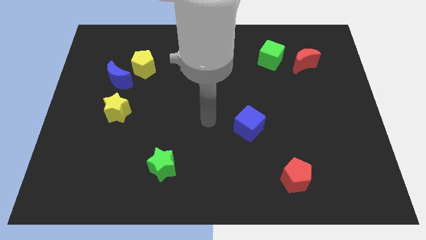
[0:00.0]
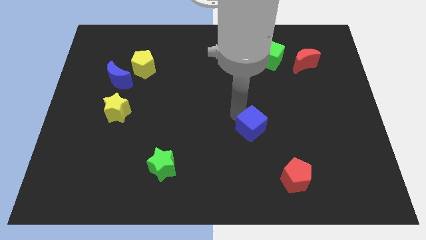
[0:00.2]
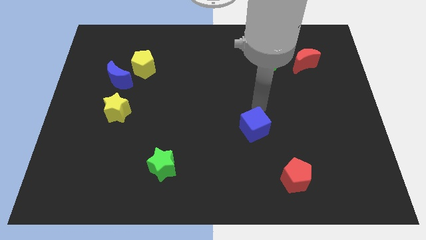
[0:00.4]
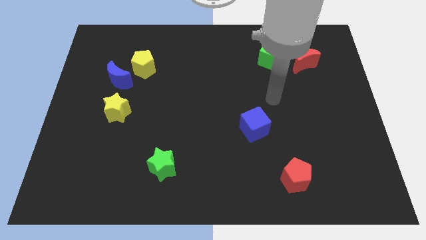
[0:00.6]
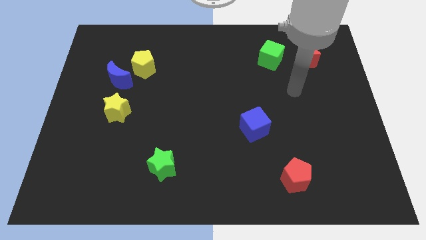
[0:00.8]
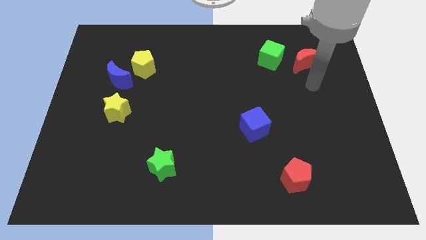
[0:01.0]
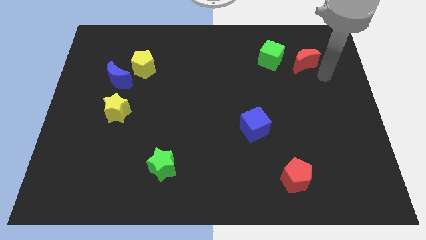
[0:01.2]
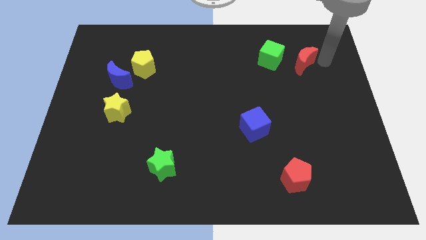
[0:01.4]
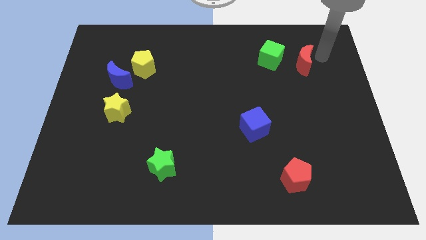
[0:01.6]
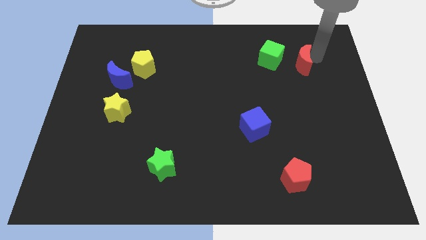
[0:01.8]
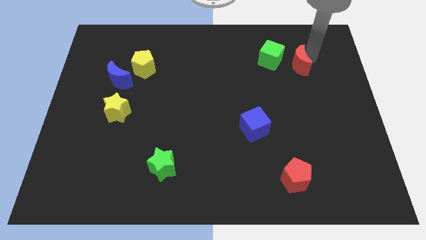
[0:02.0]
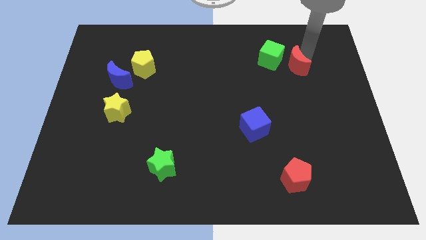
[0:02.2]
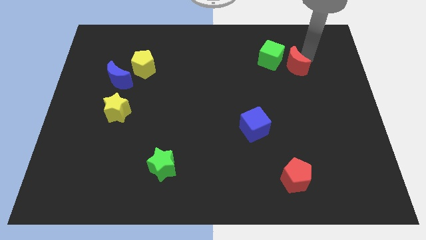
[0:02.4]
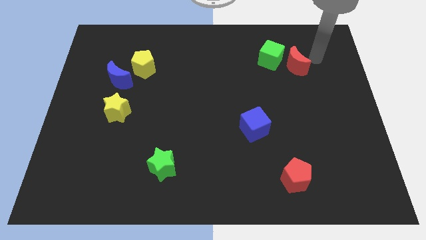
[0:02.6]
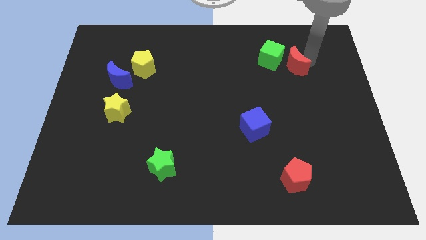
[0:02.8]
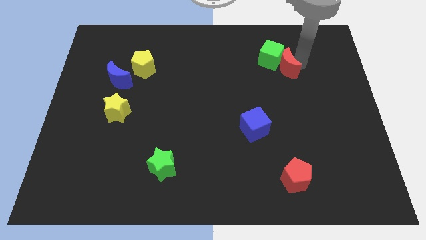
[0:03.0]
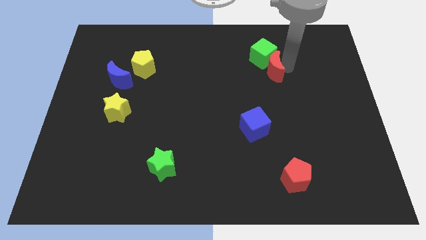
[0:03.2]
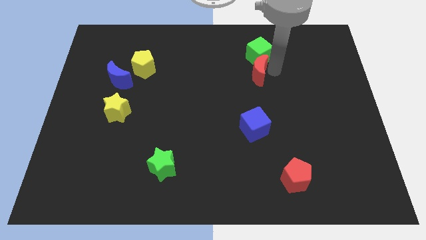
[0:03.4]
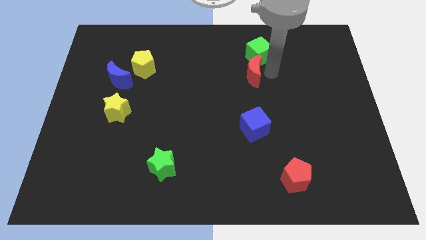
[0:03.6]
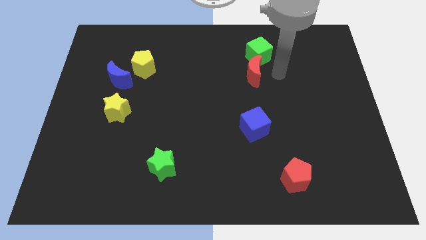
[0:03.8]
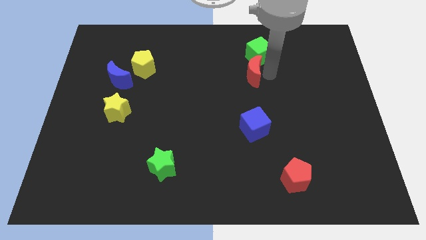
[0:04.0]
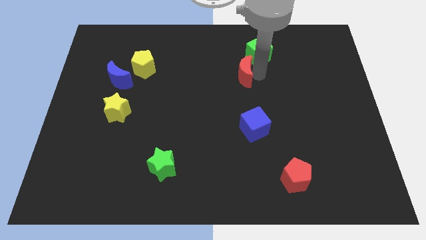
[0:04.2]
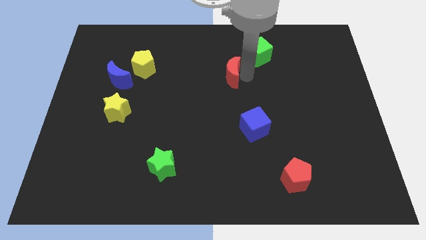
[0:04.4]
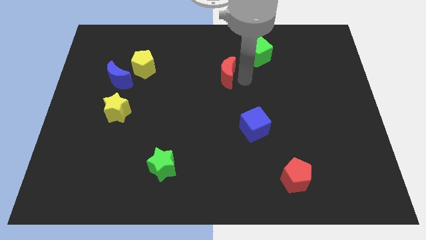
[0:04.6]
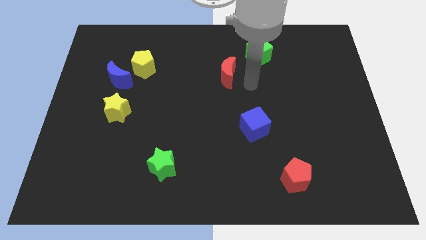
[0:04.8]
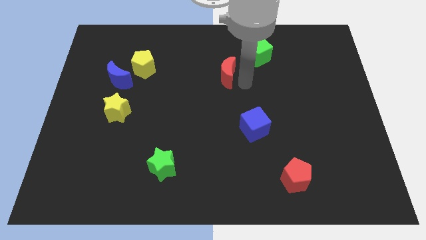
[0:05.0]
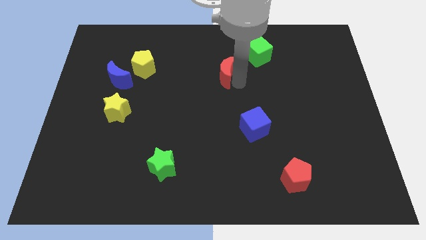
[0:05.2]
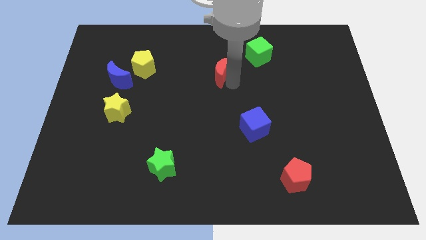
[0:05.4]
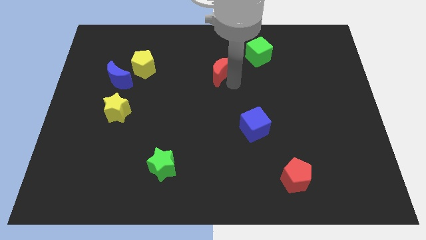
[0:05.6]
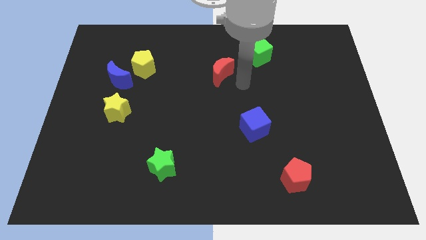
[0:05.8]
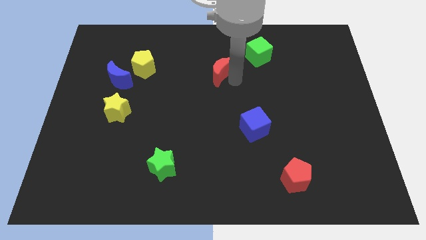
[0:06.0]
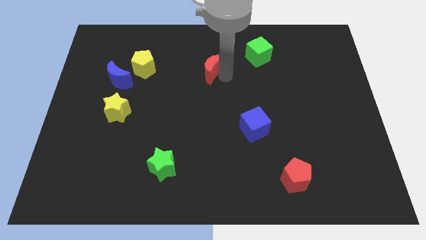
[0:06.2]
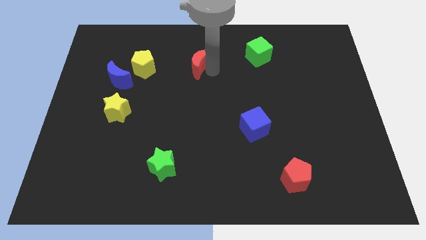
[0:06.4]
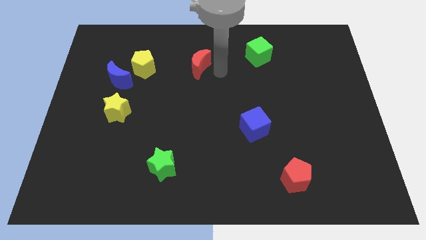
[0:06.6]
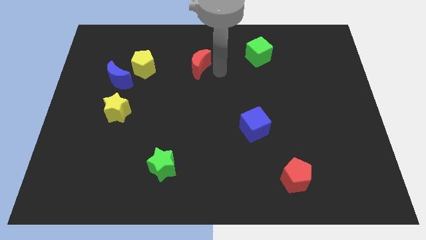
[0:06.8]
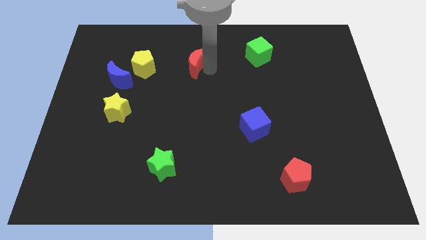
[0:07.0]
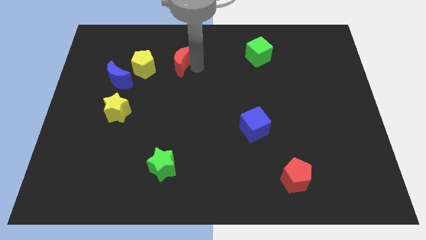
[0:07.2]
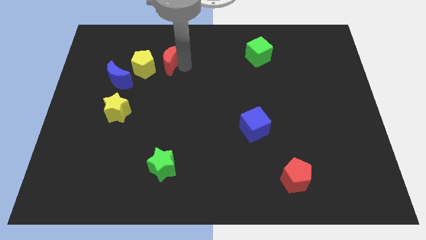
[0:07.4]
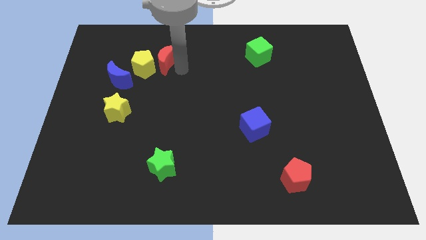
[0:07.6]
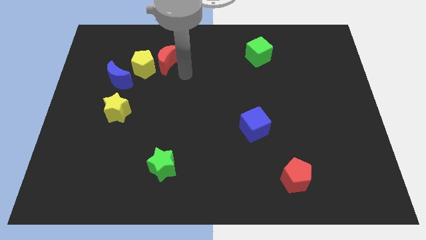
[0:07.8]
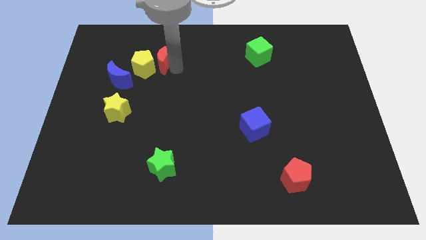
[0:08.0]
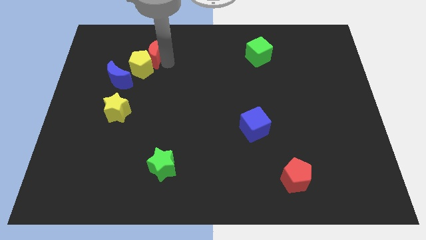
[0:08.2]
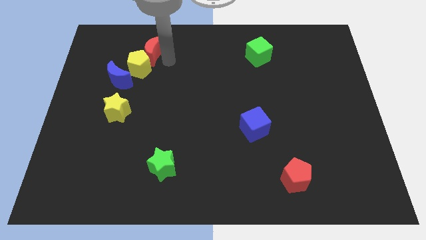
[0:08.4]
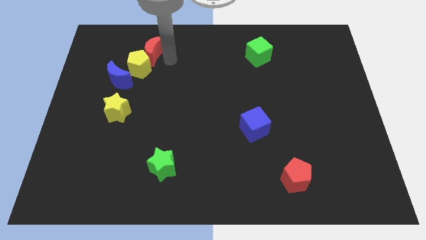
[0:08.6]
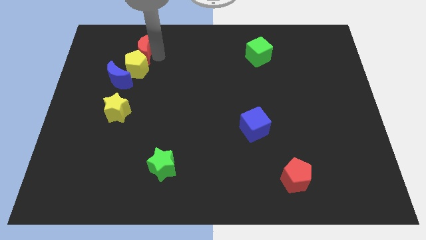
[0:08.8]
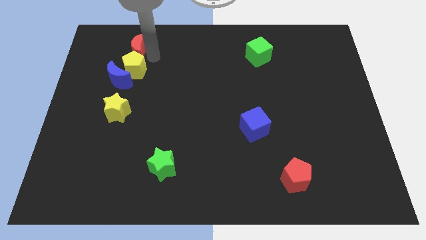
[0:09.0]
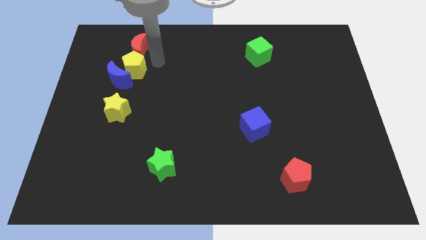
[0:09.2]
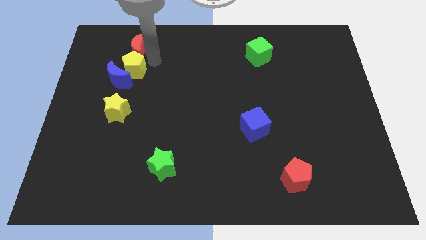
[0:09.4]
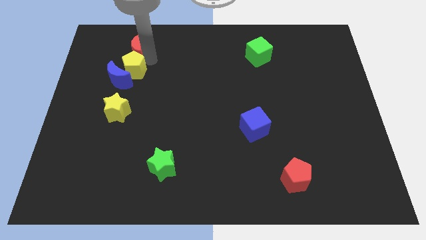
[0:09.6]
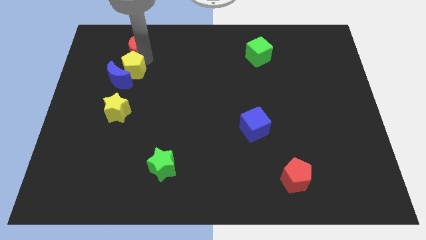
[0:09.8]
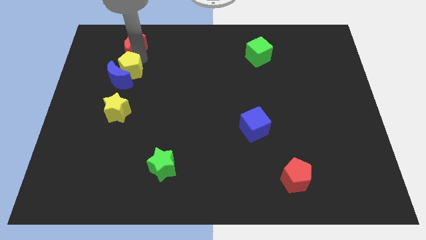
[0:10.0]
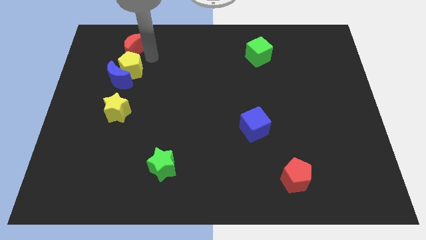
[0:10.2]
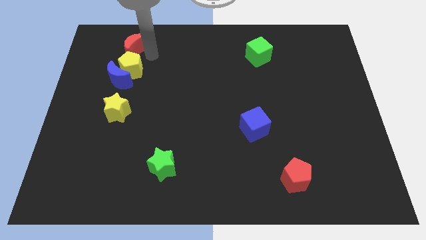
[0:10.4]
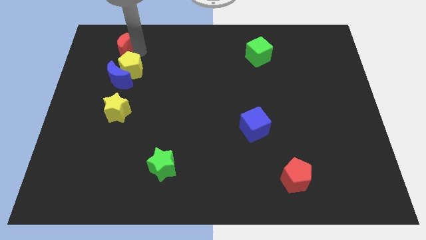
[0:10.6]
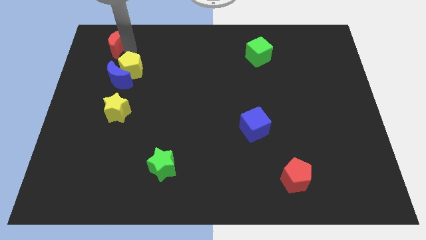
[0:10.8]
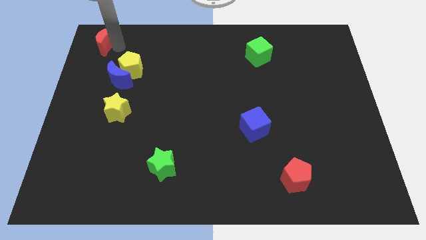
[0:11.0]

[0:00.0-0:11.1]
put the red moon to the top left

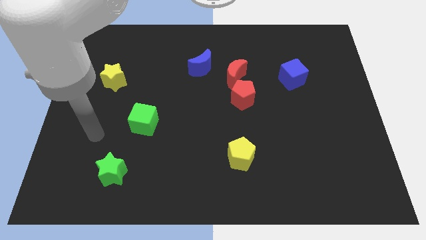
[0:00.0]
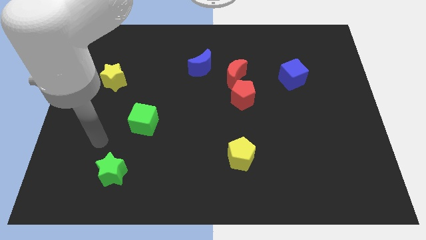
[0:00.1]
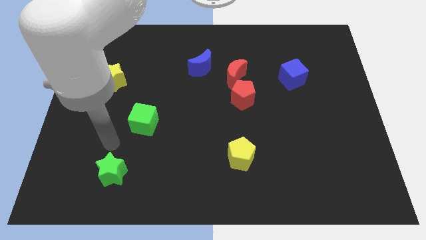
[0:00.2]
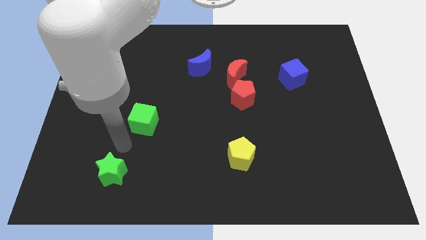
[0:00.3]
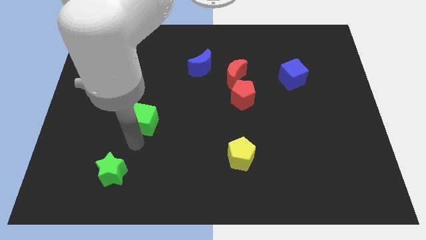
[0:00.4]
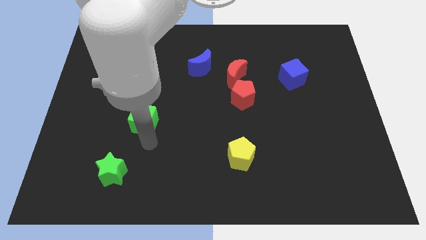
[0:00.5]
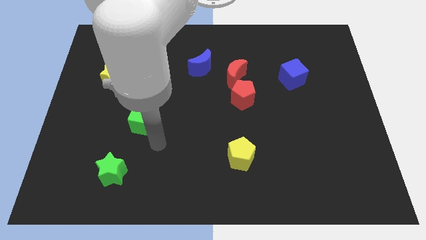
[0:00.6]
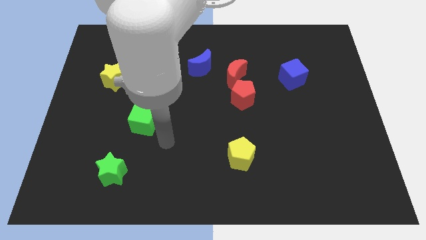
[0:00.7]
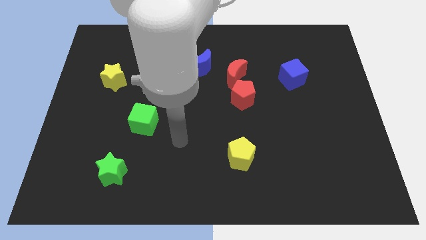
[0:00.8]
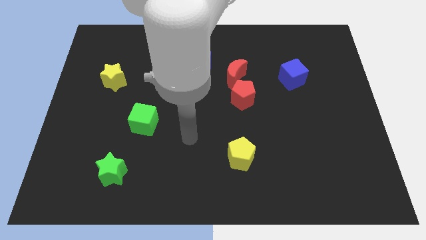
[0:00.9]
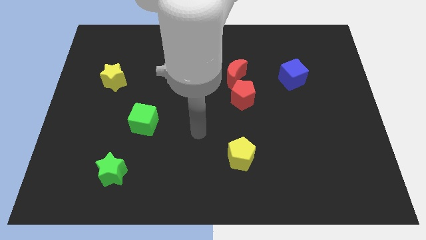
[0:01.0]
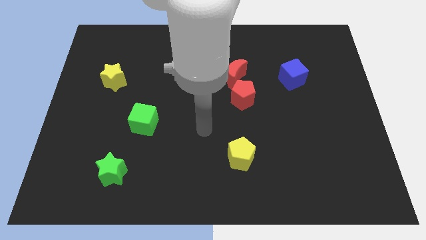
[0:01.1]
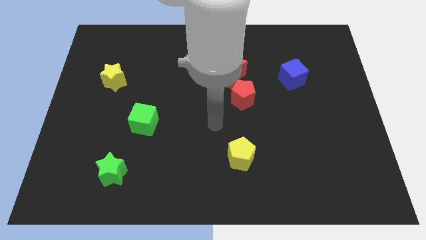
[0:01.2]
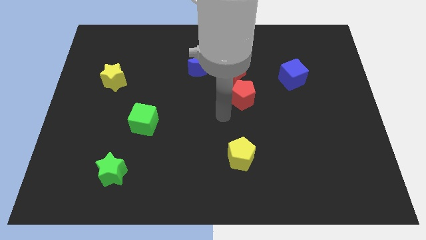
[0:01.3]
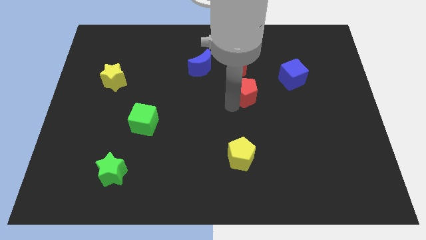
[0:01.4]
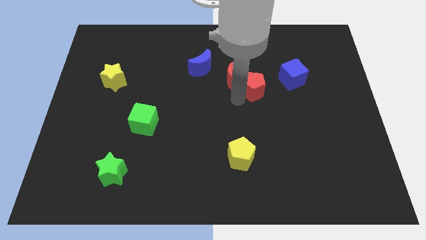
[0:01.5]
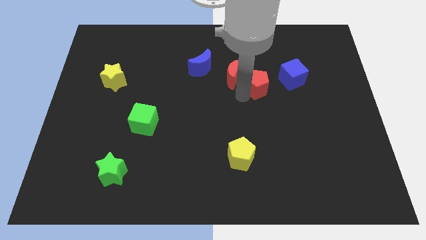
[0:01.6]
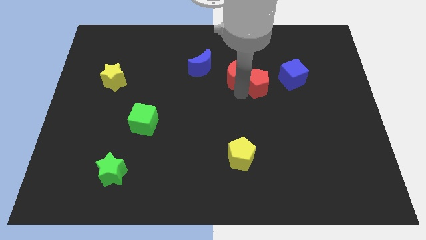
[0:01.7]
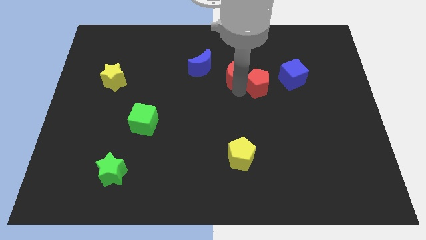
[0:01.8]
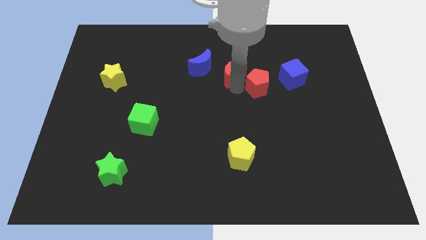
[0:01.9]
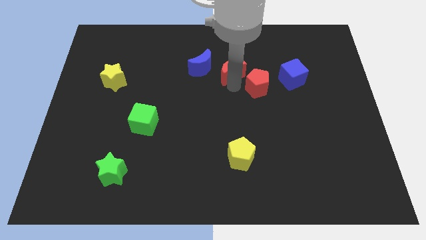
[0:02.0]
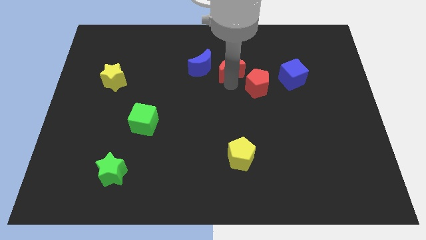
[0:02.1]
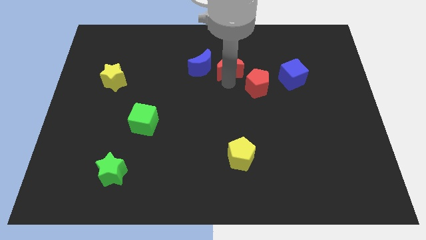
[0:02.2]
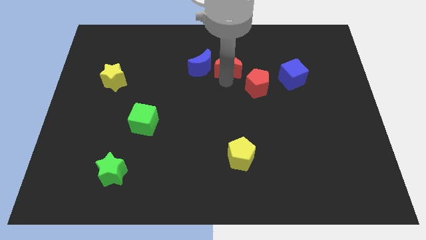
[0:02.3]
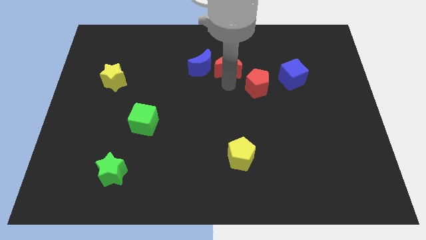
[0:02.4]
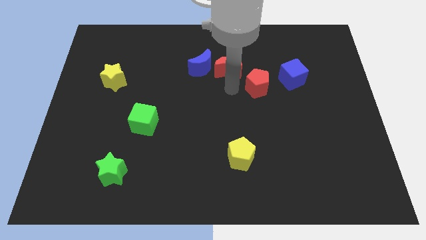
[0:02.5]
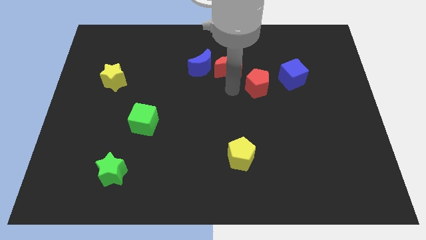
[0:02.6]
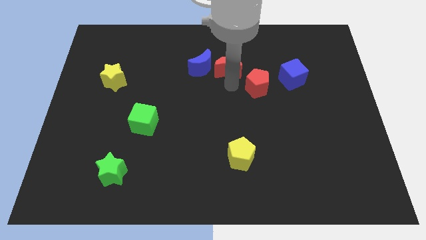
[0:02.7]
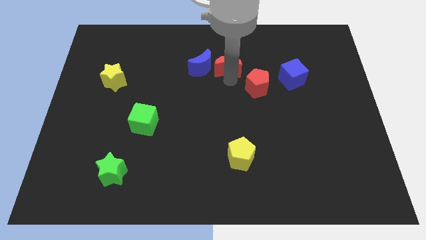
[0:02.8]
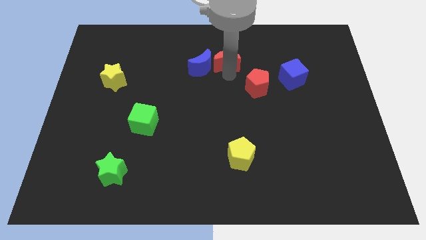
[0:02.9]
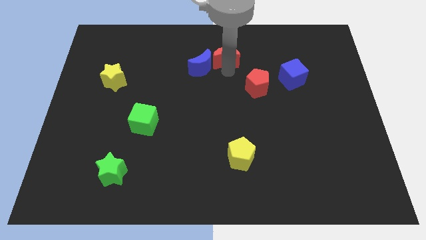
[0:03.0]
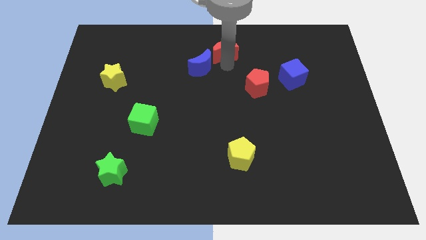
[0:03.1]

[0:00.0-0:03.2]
slide the red moon to the top side
